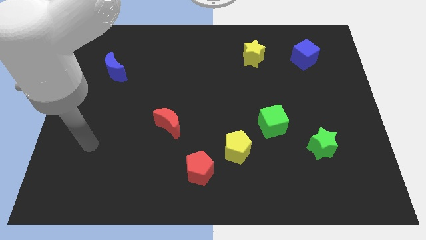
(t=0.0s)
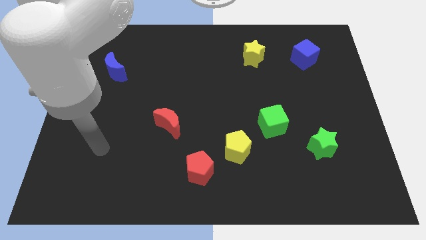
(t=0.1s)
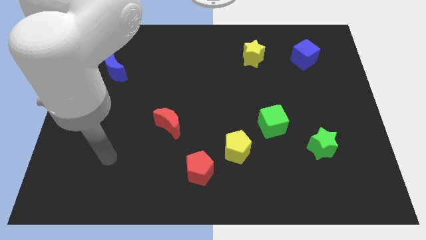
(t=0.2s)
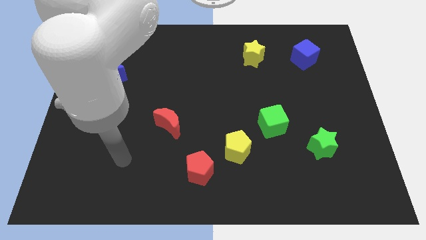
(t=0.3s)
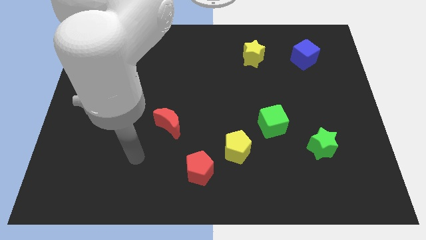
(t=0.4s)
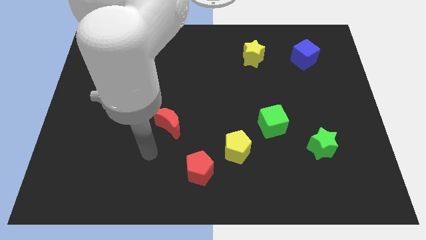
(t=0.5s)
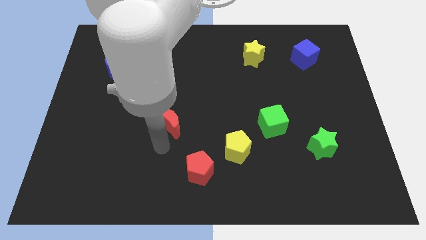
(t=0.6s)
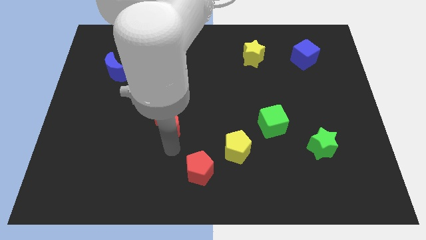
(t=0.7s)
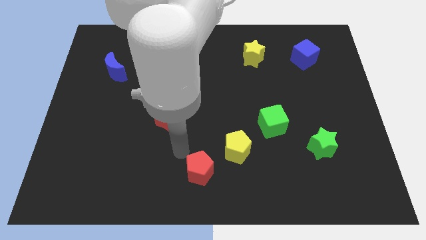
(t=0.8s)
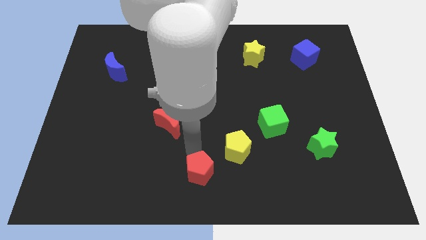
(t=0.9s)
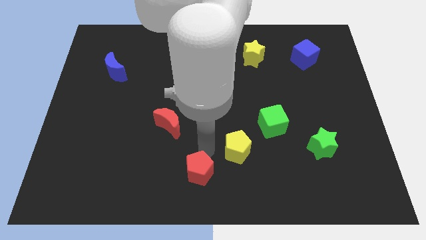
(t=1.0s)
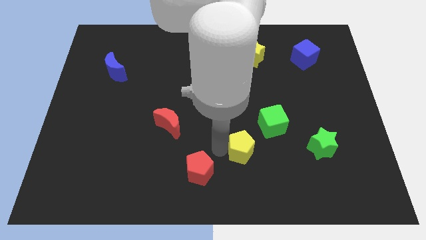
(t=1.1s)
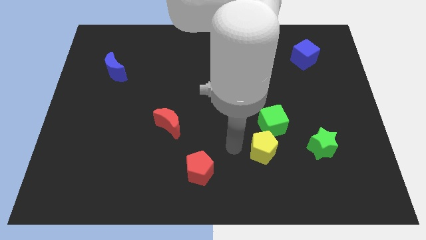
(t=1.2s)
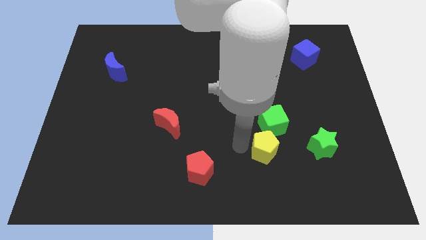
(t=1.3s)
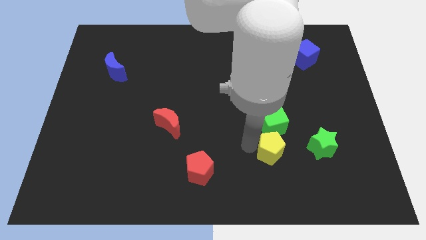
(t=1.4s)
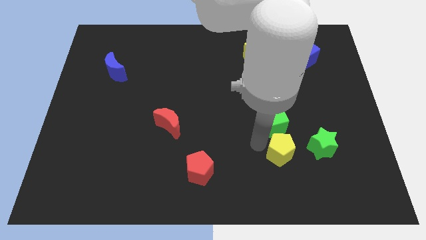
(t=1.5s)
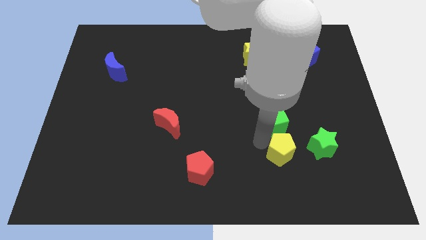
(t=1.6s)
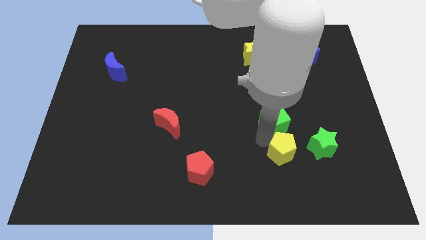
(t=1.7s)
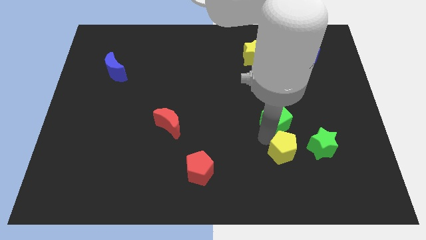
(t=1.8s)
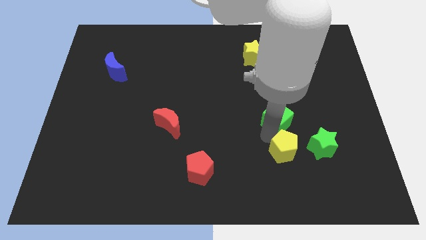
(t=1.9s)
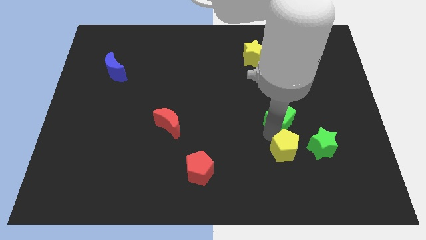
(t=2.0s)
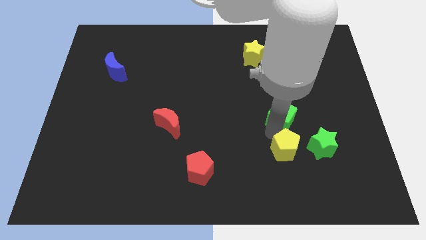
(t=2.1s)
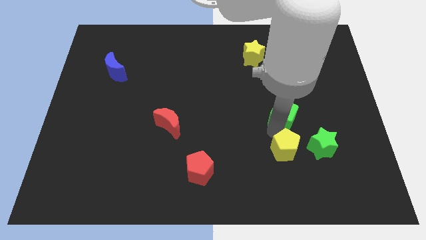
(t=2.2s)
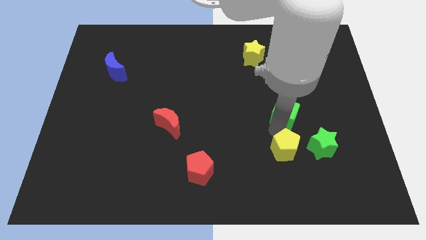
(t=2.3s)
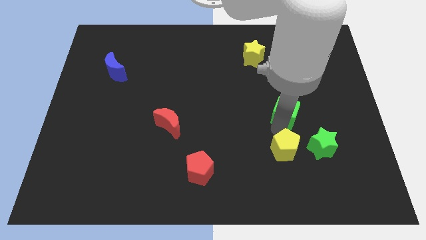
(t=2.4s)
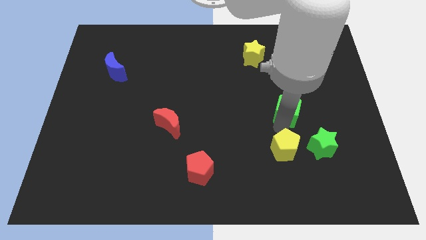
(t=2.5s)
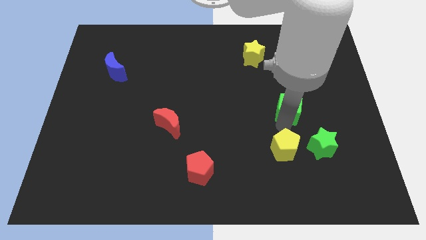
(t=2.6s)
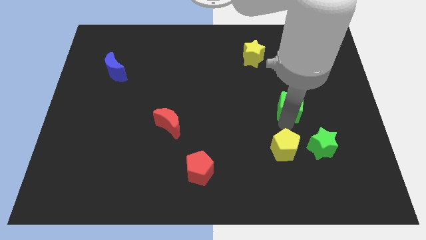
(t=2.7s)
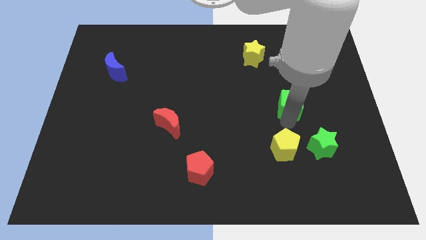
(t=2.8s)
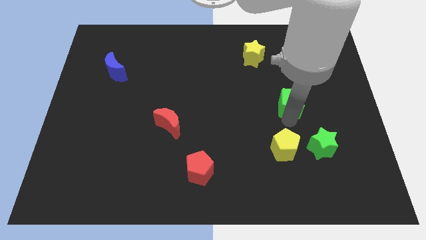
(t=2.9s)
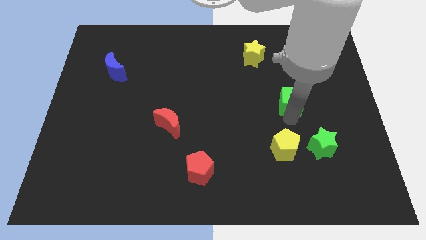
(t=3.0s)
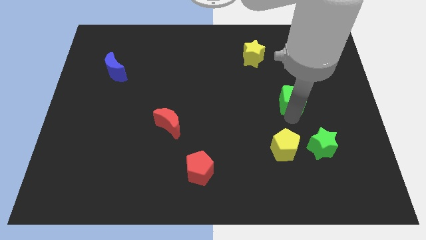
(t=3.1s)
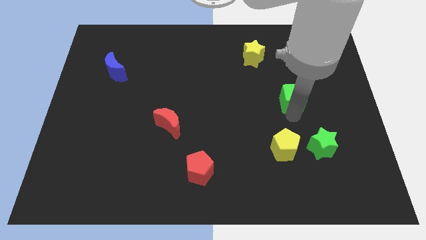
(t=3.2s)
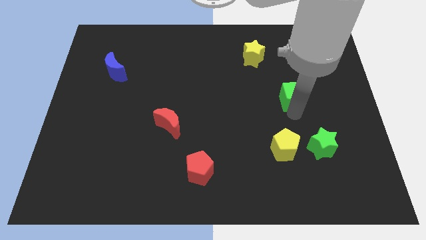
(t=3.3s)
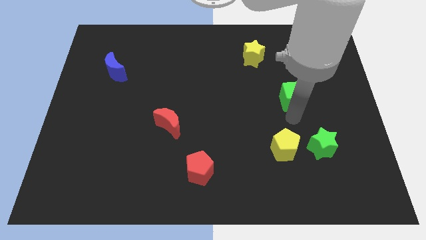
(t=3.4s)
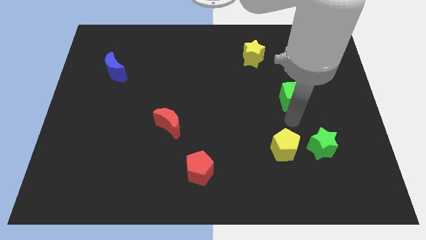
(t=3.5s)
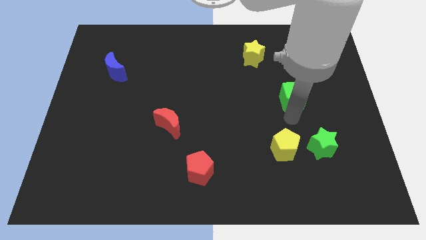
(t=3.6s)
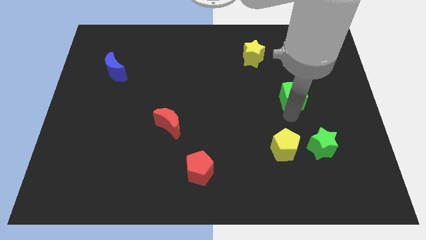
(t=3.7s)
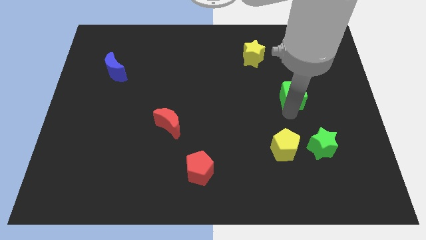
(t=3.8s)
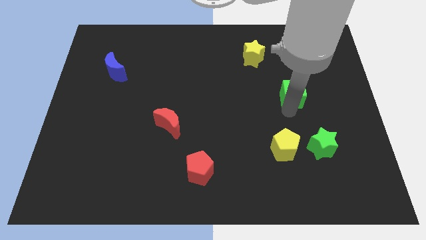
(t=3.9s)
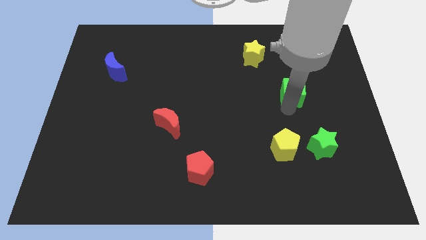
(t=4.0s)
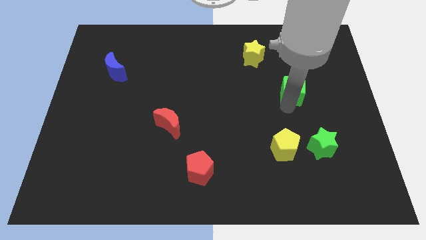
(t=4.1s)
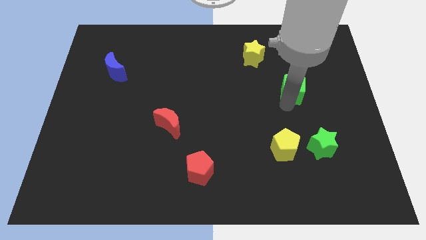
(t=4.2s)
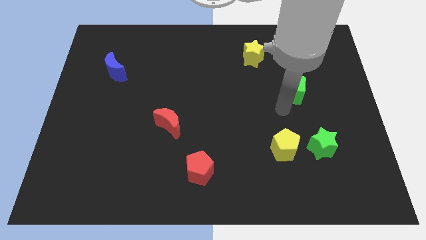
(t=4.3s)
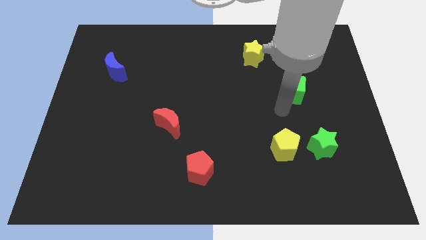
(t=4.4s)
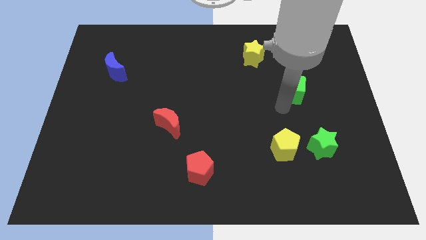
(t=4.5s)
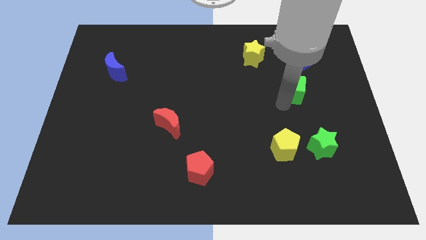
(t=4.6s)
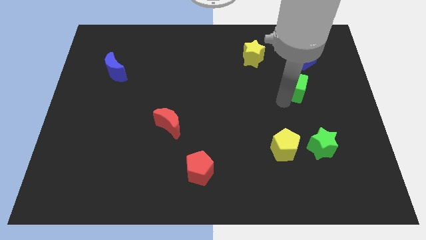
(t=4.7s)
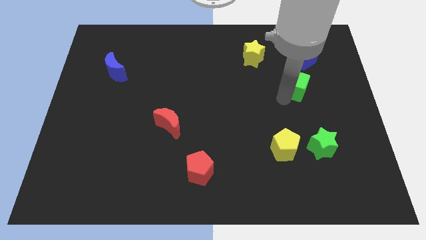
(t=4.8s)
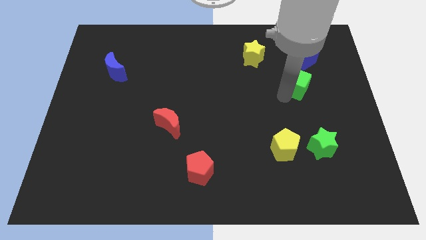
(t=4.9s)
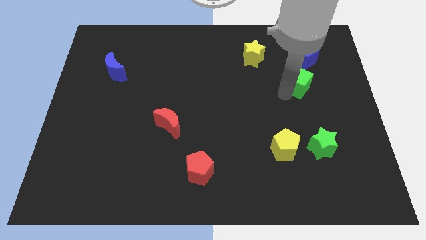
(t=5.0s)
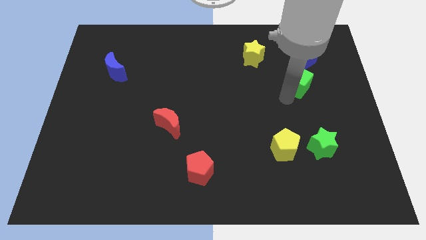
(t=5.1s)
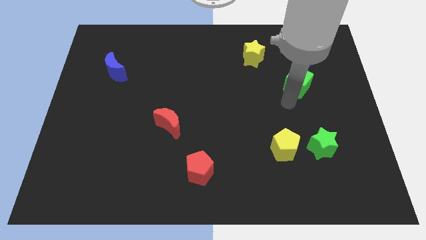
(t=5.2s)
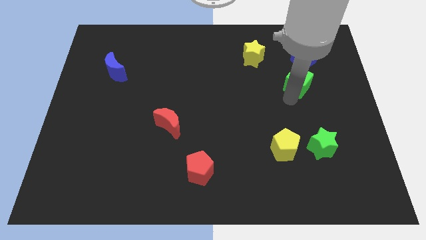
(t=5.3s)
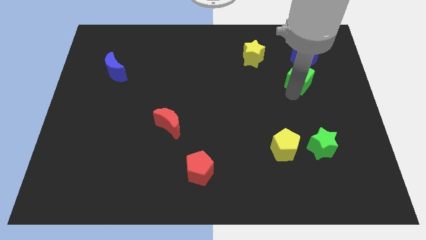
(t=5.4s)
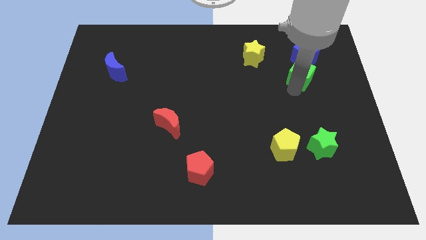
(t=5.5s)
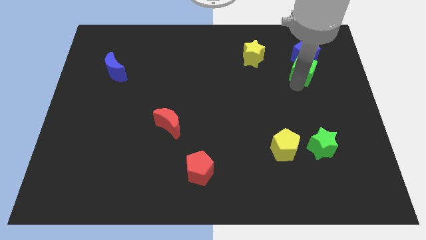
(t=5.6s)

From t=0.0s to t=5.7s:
put the green cube towards the blue cube

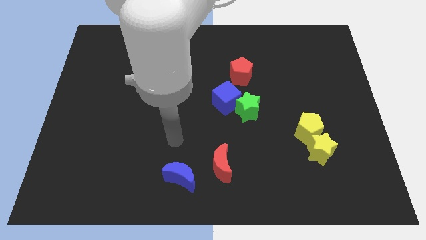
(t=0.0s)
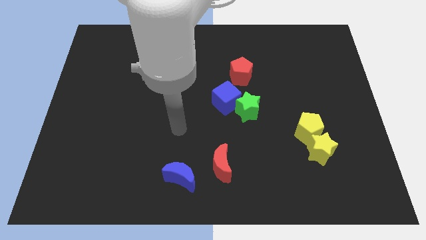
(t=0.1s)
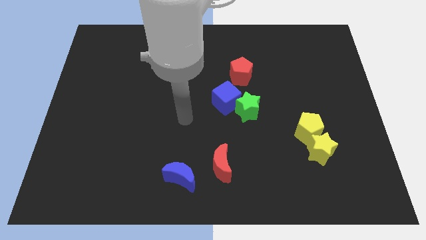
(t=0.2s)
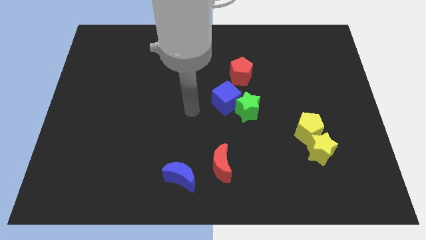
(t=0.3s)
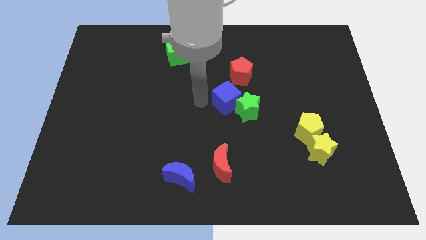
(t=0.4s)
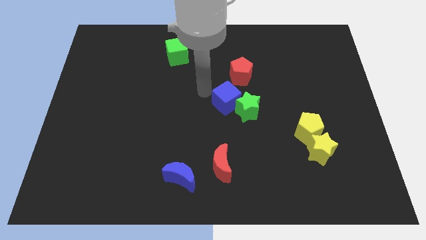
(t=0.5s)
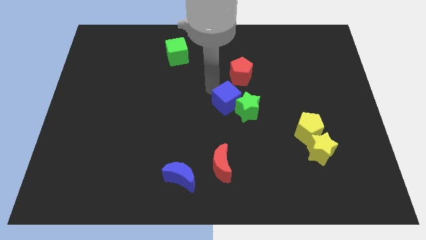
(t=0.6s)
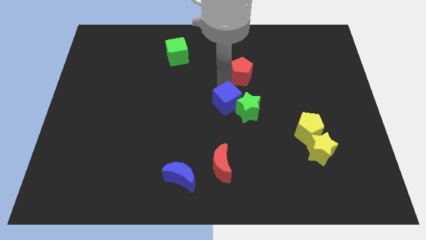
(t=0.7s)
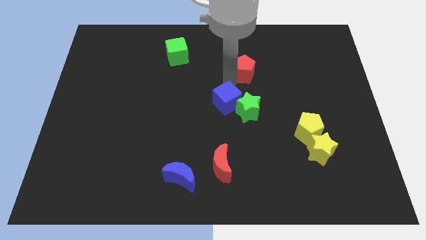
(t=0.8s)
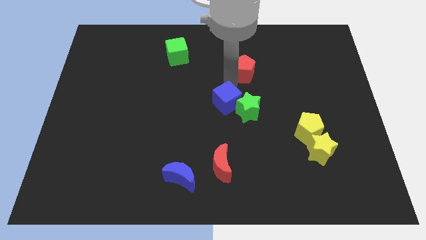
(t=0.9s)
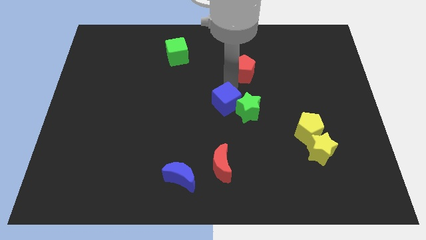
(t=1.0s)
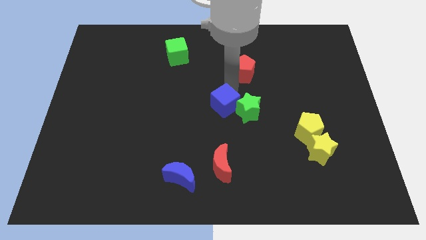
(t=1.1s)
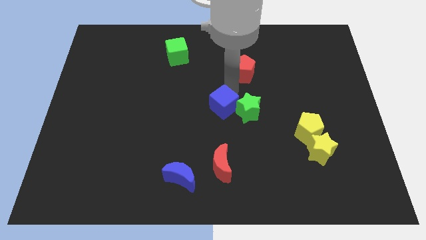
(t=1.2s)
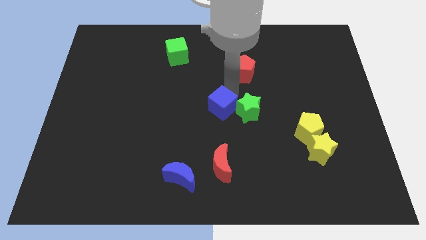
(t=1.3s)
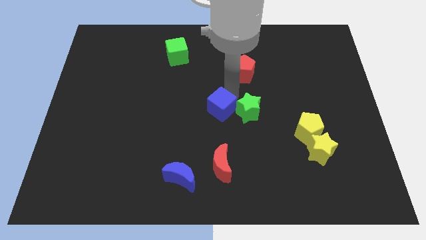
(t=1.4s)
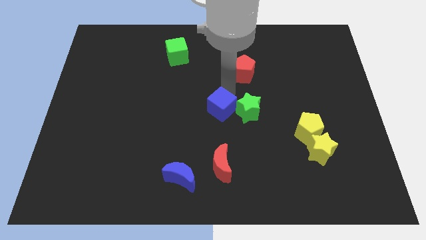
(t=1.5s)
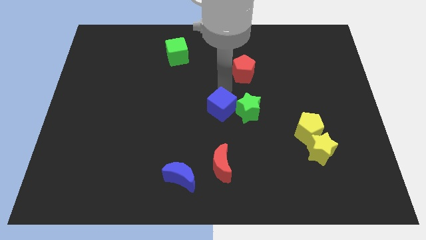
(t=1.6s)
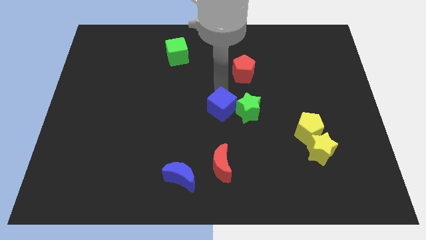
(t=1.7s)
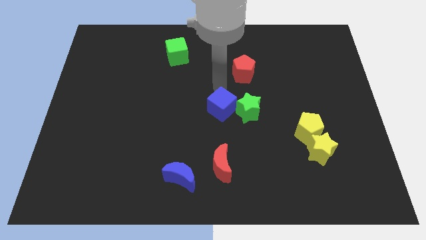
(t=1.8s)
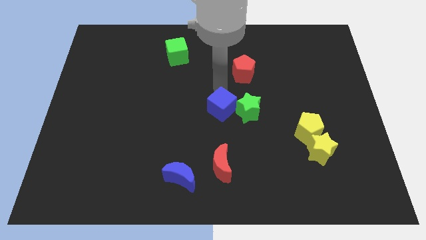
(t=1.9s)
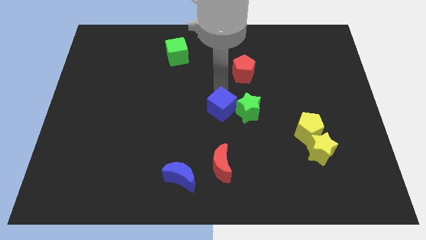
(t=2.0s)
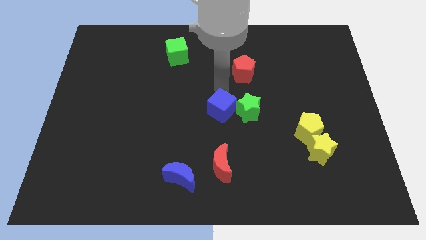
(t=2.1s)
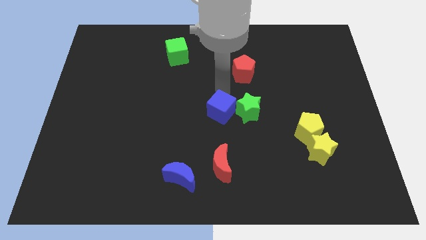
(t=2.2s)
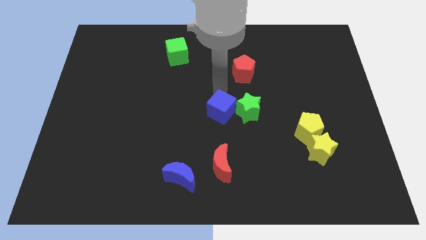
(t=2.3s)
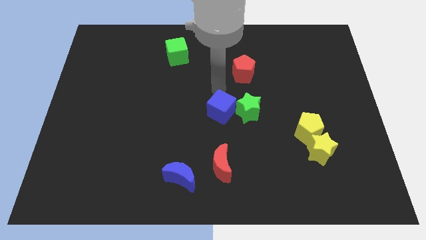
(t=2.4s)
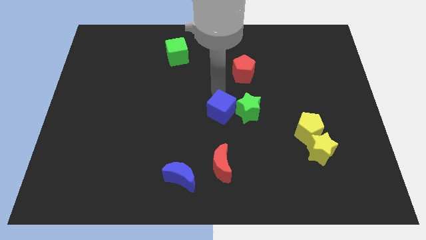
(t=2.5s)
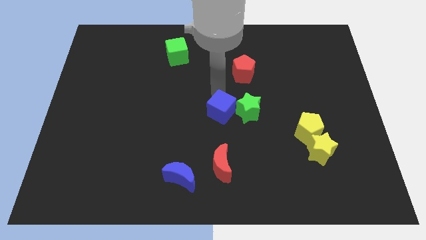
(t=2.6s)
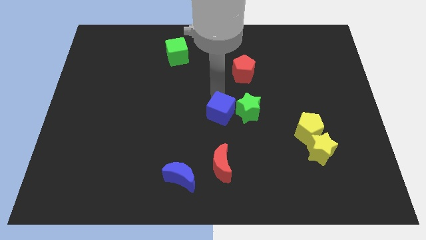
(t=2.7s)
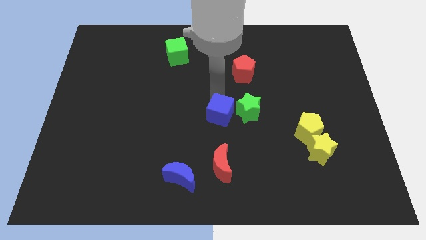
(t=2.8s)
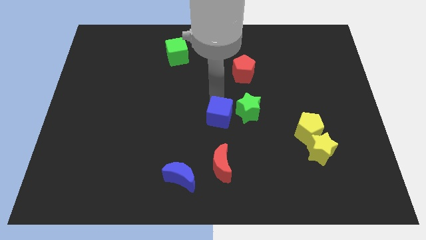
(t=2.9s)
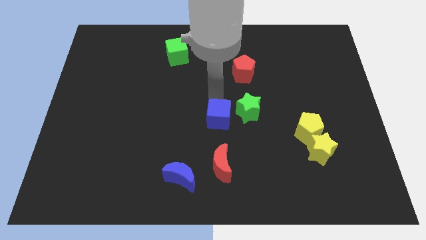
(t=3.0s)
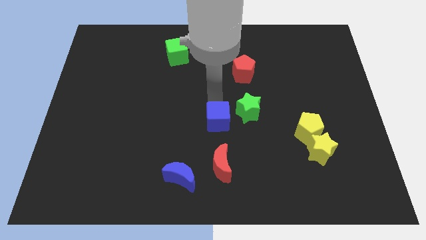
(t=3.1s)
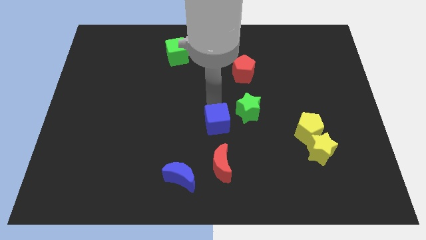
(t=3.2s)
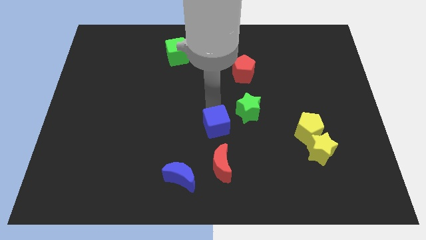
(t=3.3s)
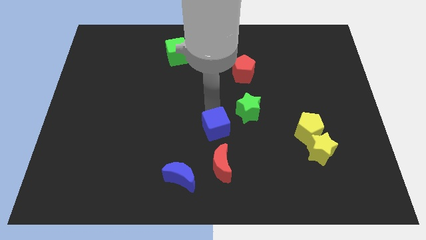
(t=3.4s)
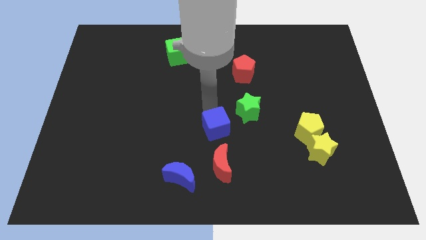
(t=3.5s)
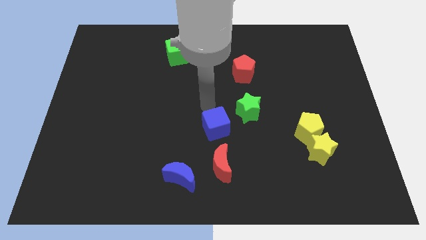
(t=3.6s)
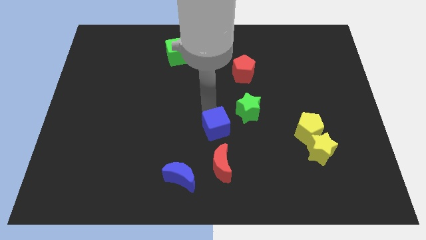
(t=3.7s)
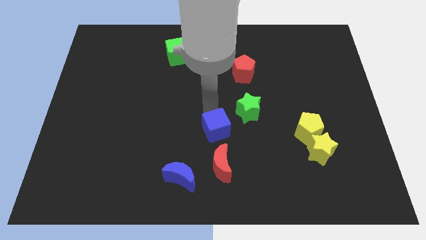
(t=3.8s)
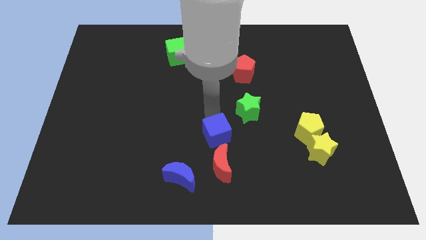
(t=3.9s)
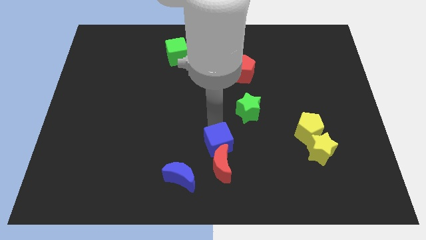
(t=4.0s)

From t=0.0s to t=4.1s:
put the blue cube next to the red moon
